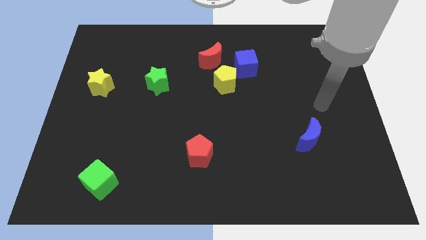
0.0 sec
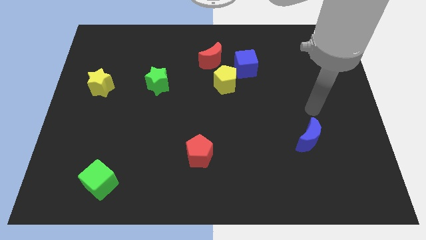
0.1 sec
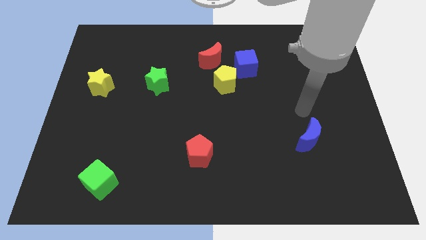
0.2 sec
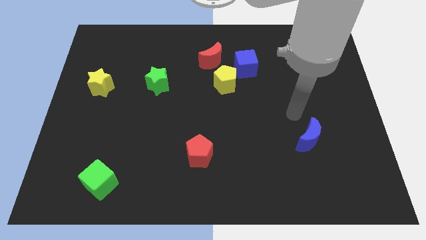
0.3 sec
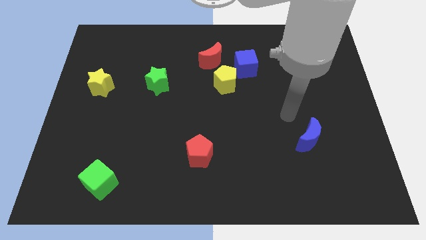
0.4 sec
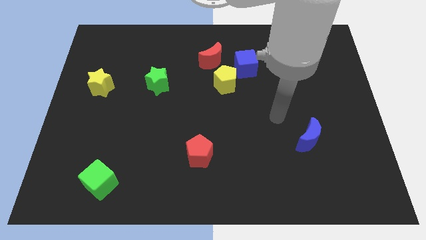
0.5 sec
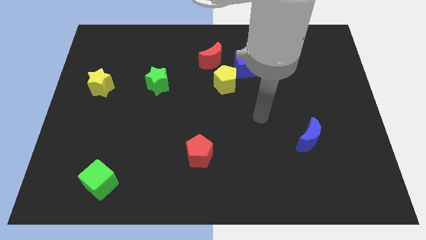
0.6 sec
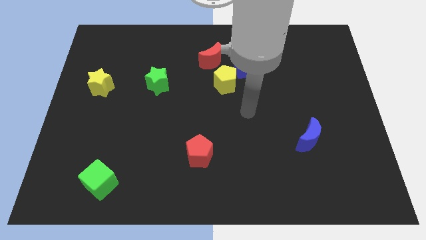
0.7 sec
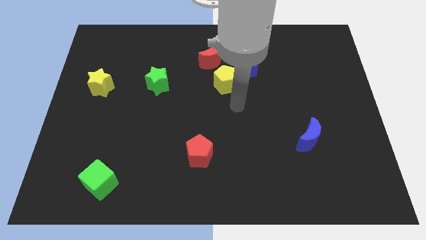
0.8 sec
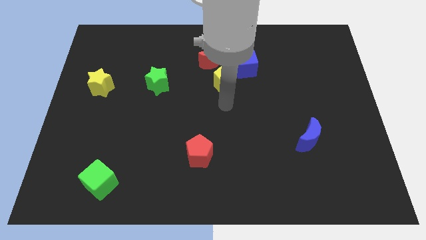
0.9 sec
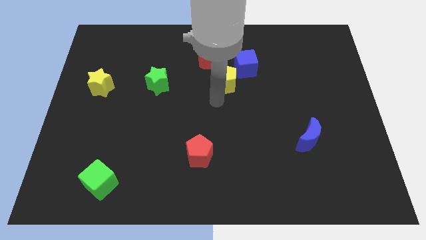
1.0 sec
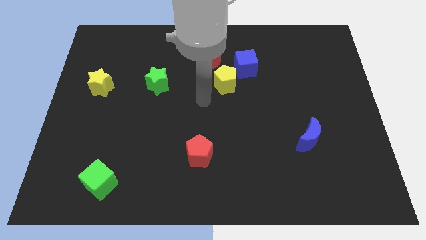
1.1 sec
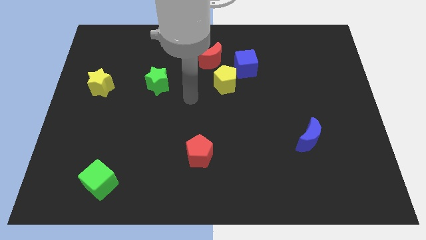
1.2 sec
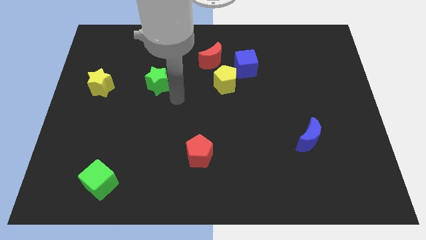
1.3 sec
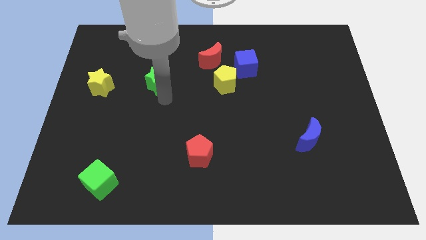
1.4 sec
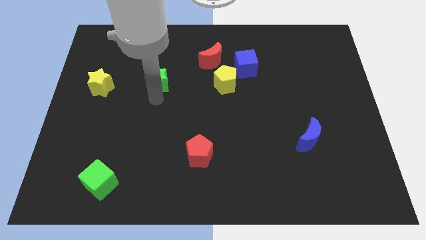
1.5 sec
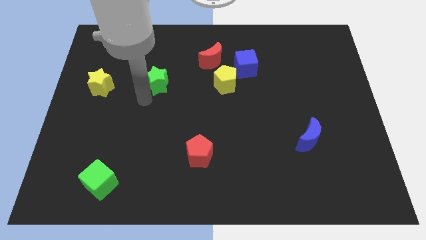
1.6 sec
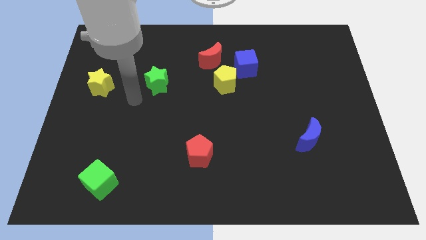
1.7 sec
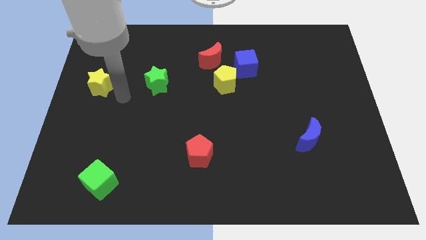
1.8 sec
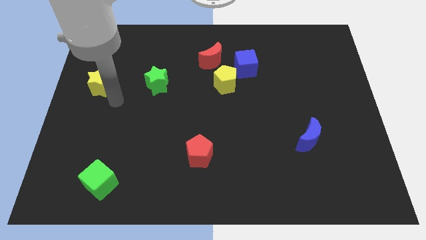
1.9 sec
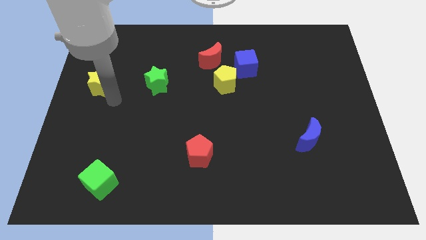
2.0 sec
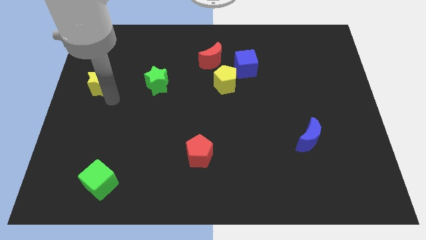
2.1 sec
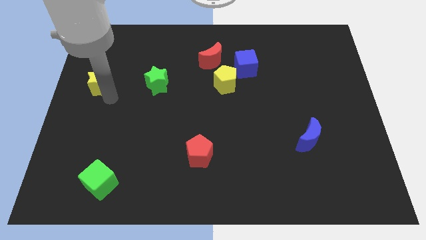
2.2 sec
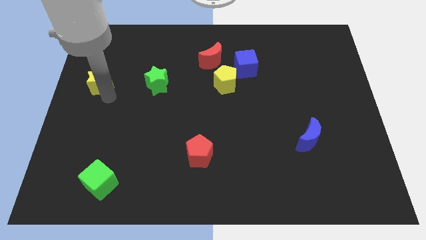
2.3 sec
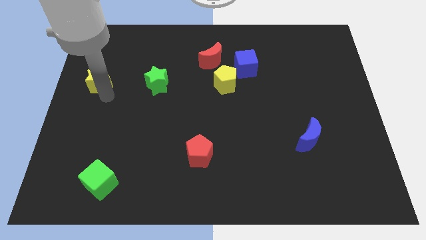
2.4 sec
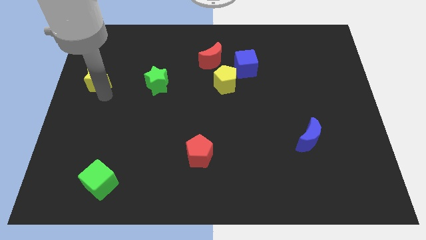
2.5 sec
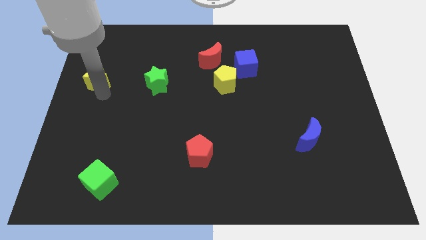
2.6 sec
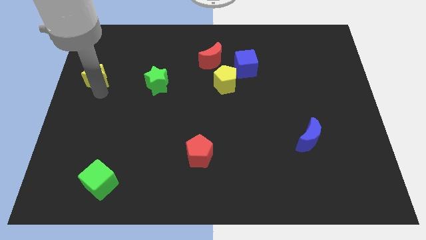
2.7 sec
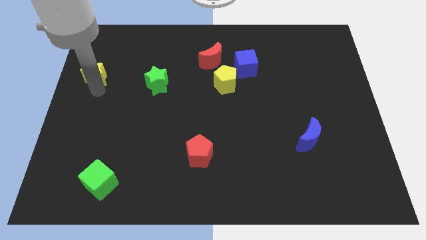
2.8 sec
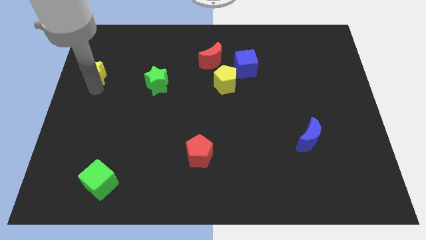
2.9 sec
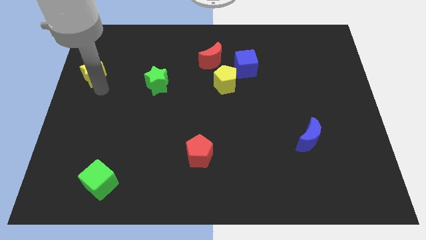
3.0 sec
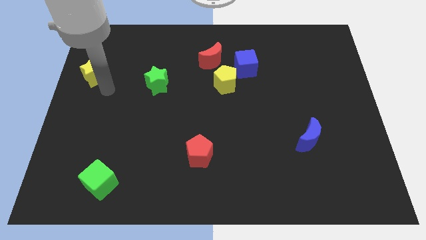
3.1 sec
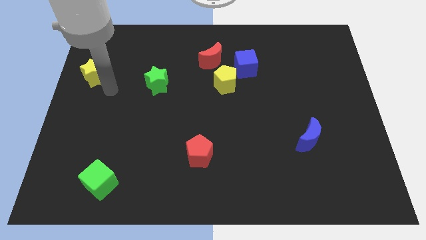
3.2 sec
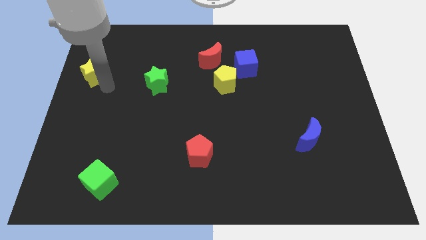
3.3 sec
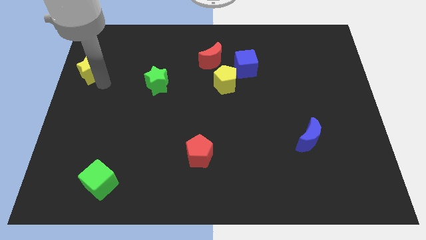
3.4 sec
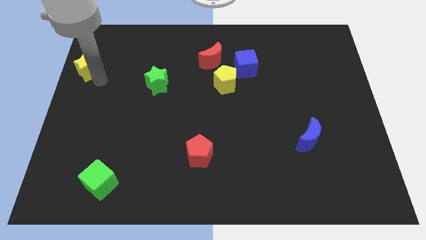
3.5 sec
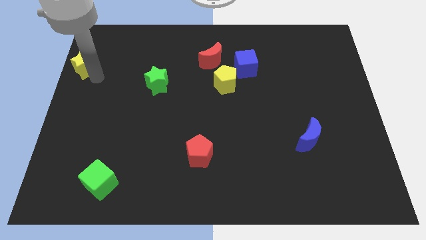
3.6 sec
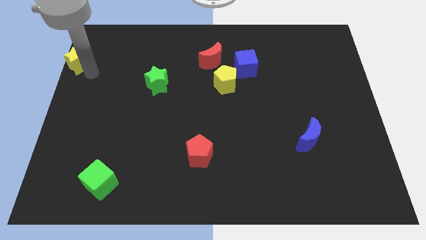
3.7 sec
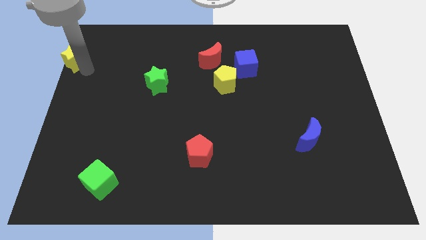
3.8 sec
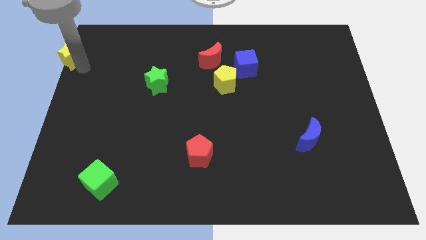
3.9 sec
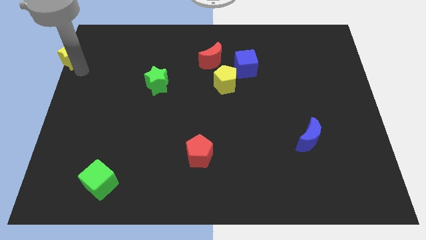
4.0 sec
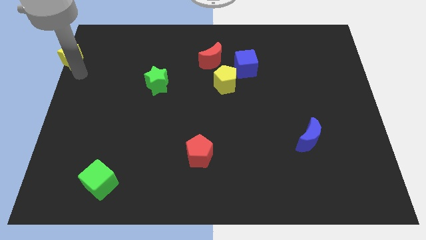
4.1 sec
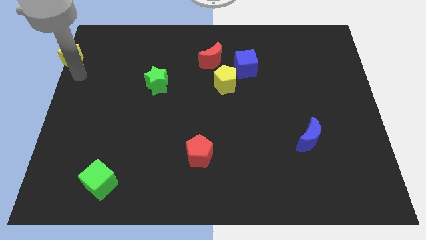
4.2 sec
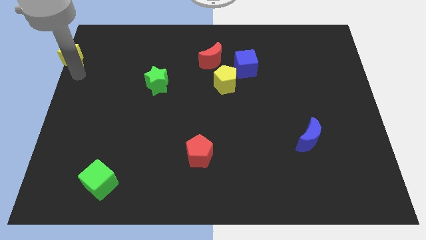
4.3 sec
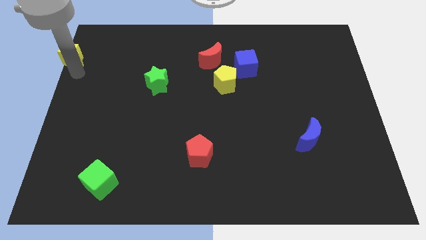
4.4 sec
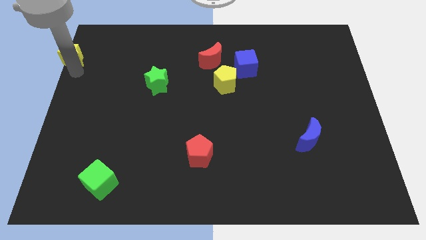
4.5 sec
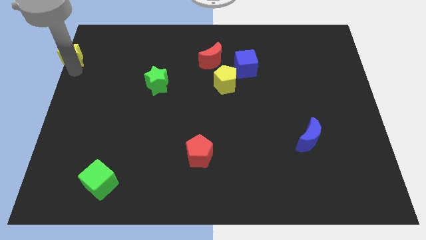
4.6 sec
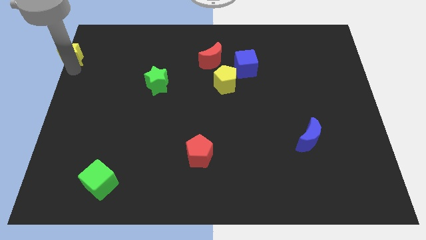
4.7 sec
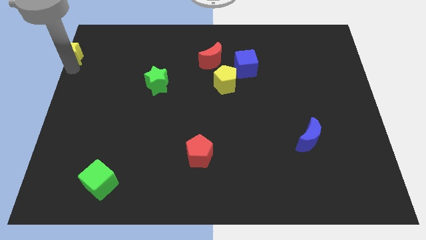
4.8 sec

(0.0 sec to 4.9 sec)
put the yellow star to the top left corner

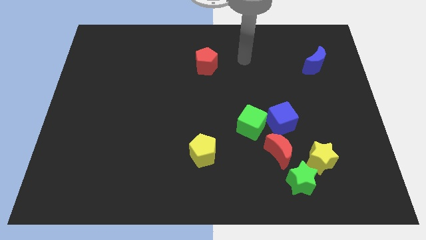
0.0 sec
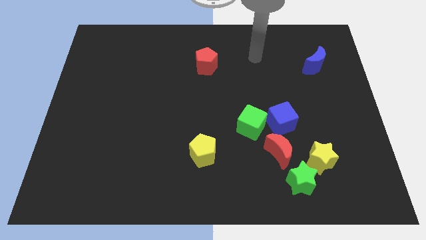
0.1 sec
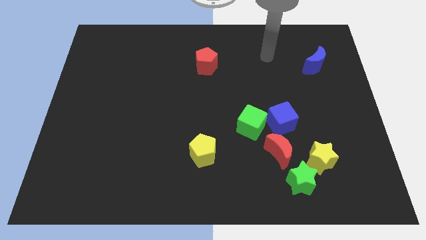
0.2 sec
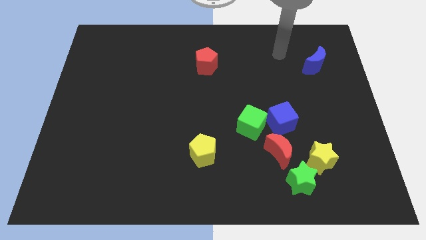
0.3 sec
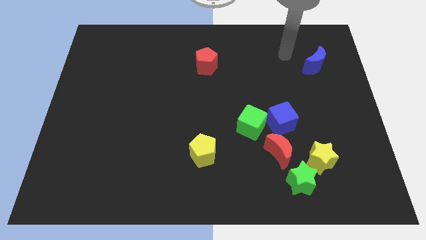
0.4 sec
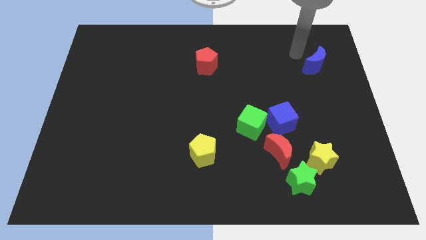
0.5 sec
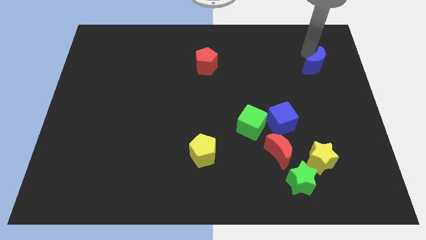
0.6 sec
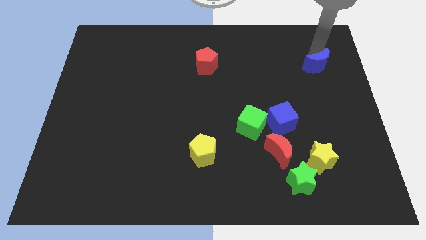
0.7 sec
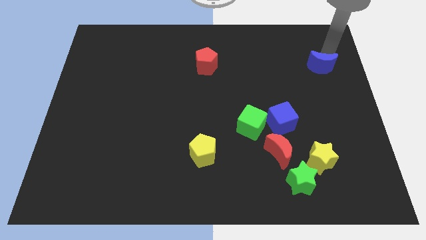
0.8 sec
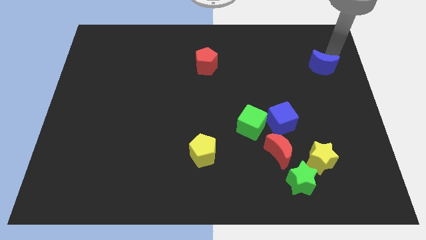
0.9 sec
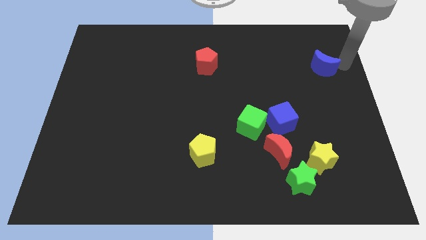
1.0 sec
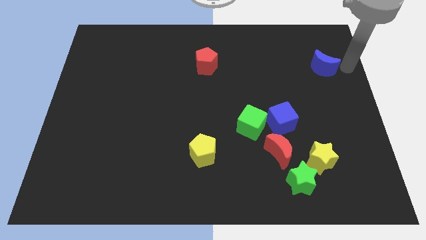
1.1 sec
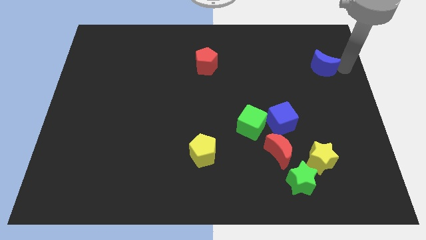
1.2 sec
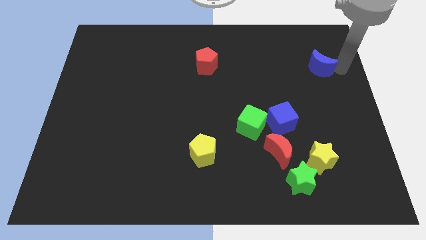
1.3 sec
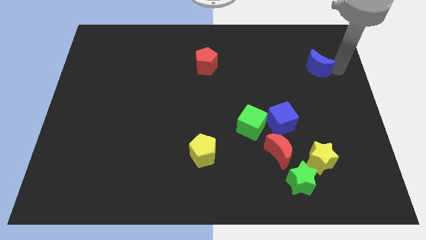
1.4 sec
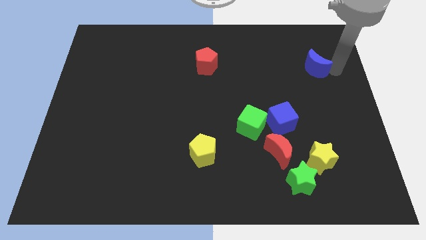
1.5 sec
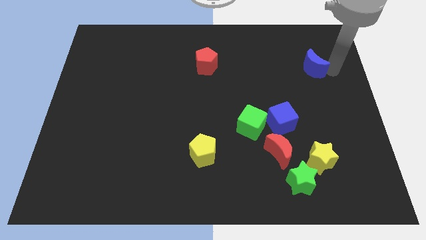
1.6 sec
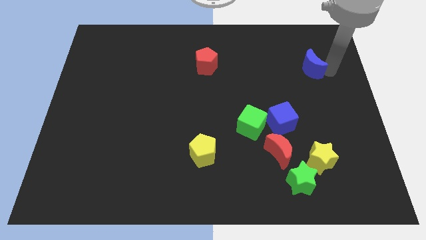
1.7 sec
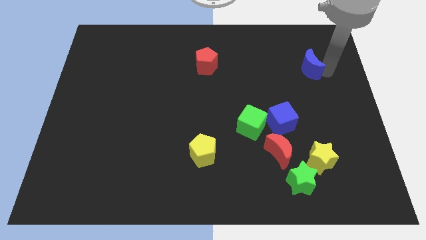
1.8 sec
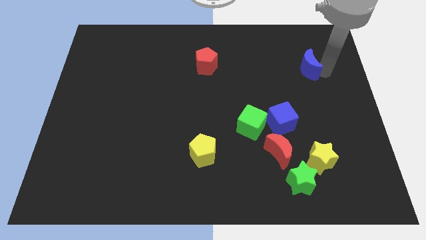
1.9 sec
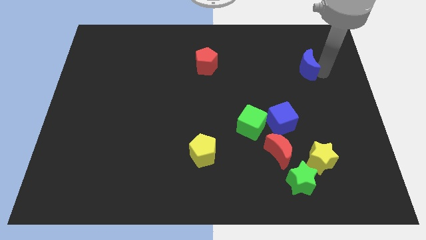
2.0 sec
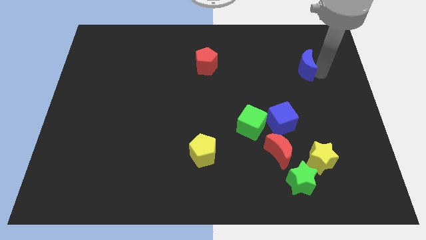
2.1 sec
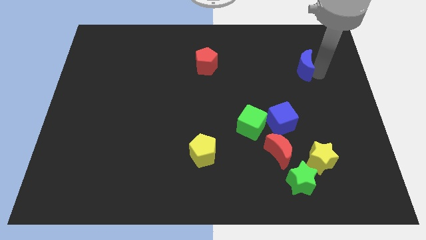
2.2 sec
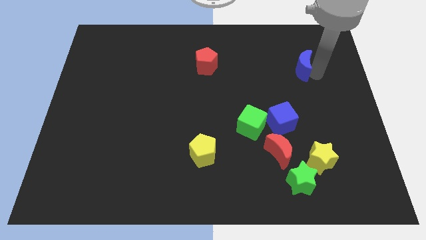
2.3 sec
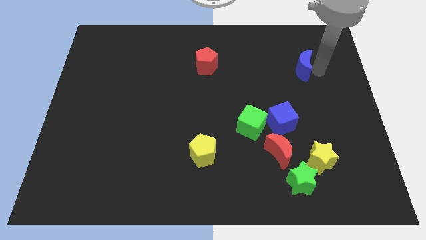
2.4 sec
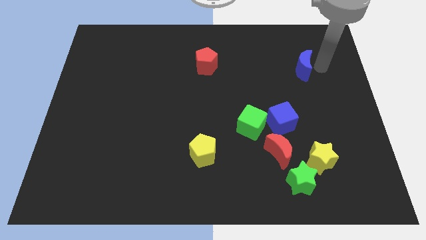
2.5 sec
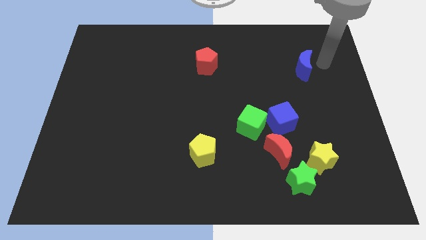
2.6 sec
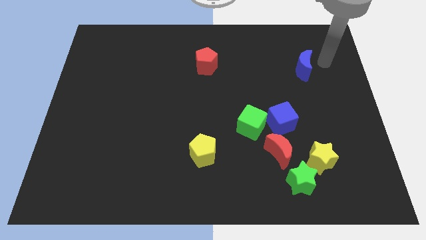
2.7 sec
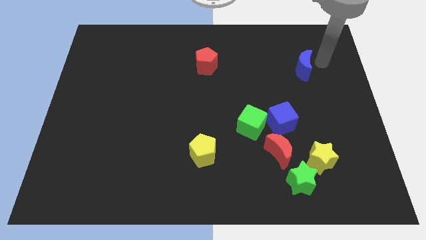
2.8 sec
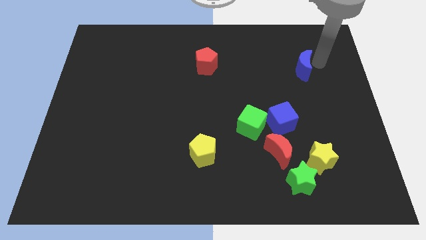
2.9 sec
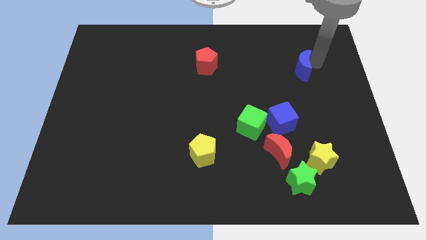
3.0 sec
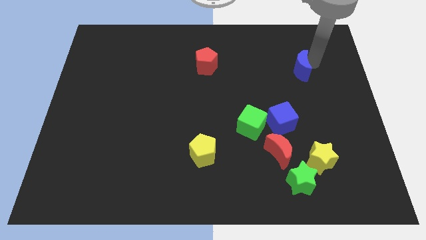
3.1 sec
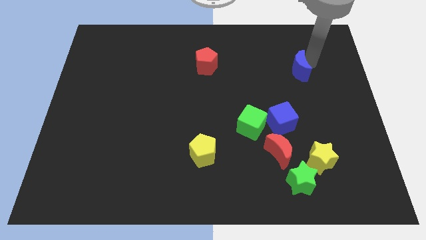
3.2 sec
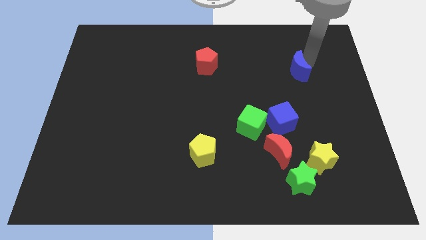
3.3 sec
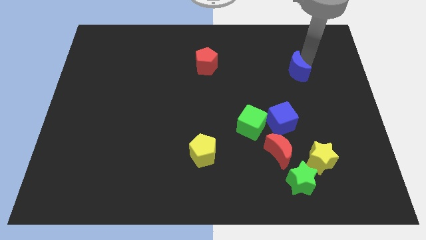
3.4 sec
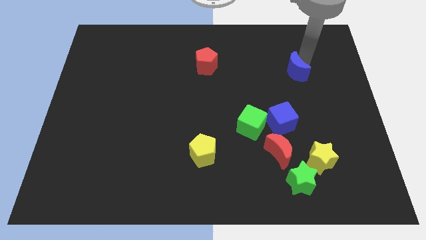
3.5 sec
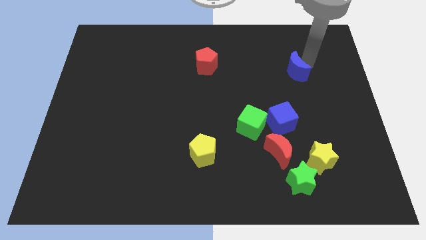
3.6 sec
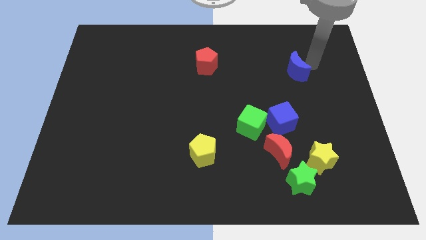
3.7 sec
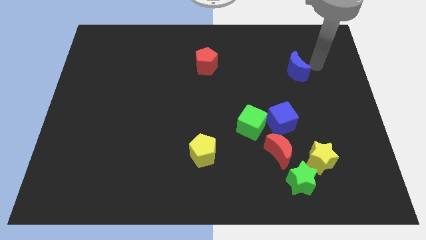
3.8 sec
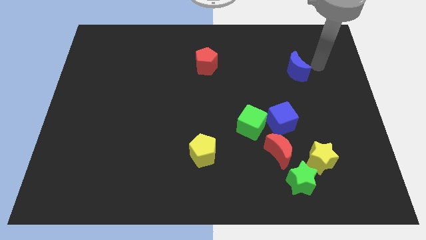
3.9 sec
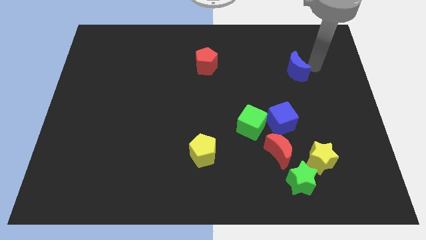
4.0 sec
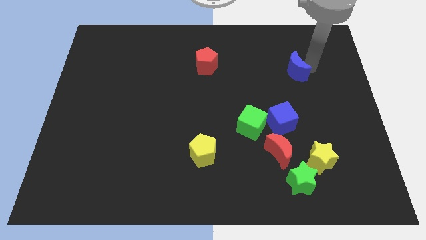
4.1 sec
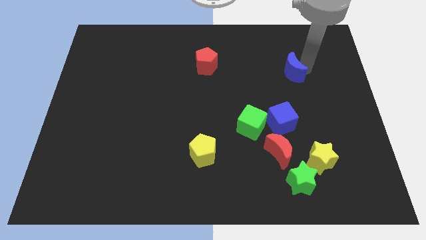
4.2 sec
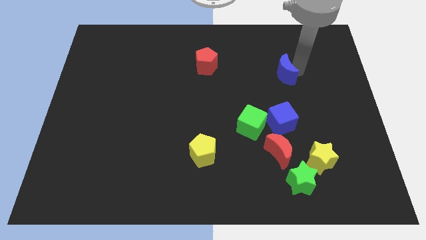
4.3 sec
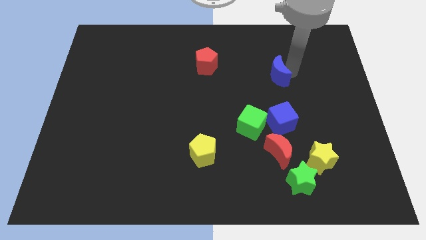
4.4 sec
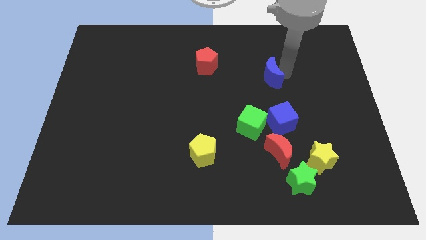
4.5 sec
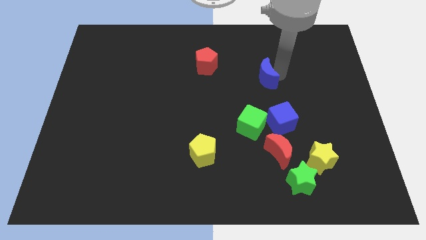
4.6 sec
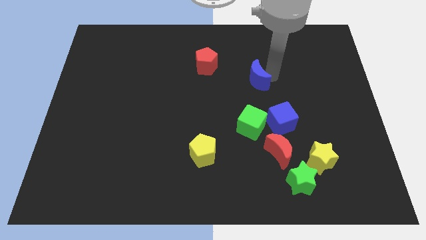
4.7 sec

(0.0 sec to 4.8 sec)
push the blue moon to the middle
